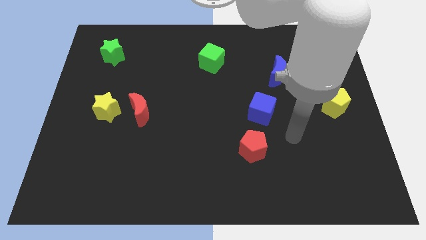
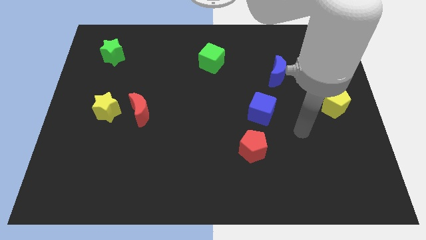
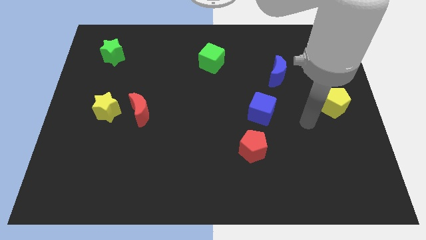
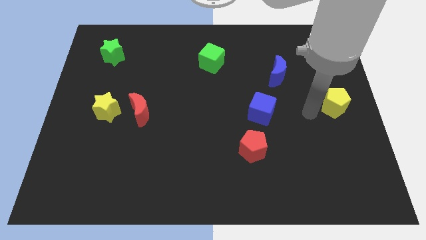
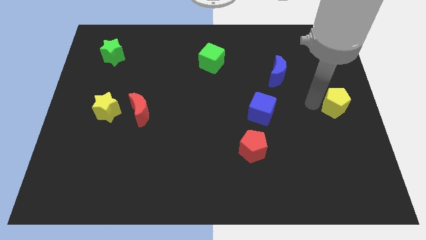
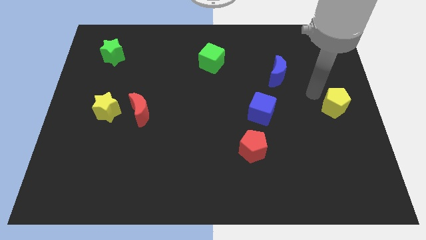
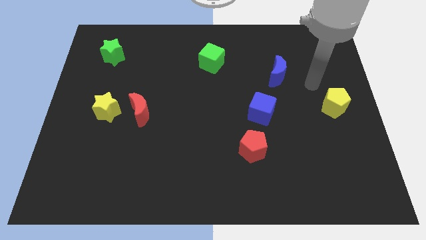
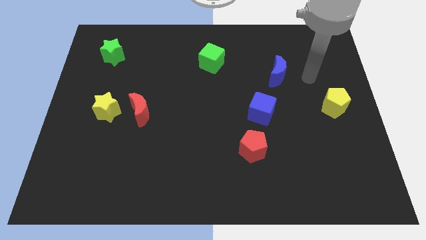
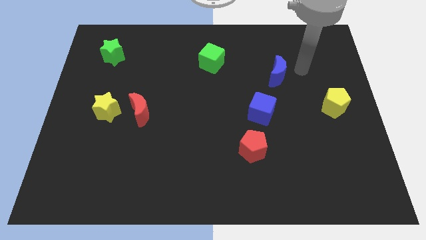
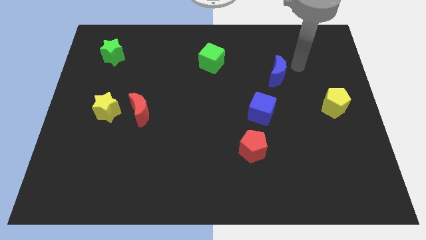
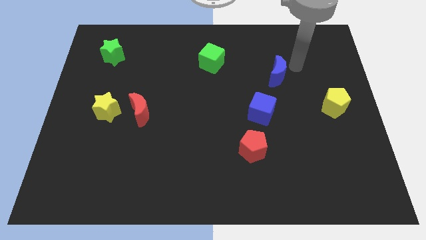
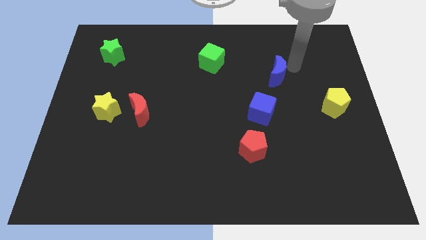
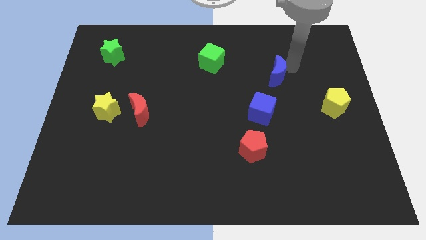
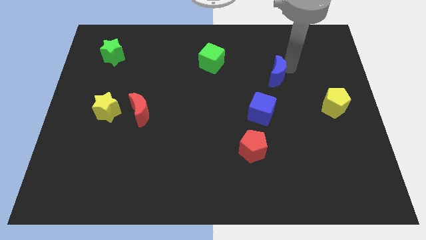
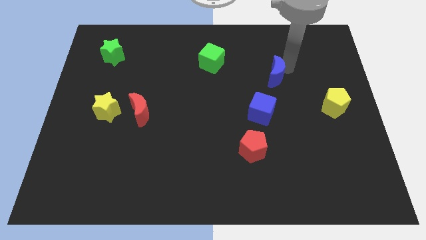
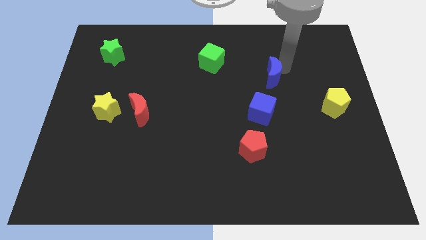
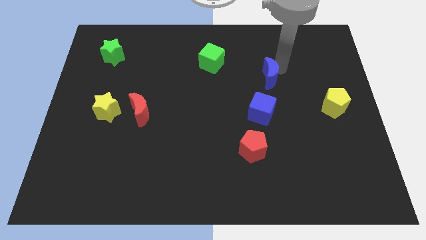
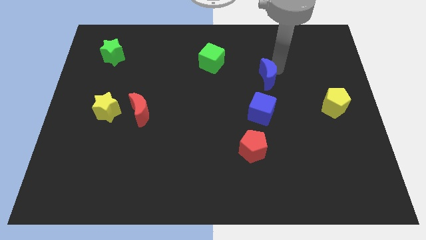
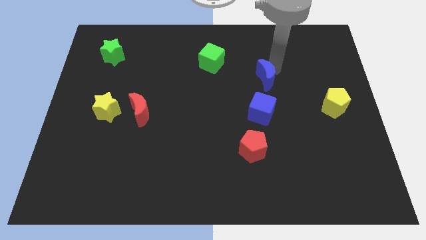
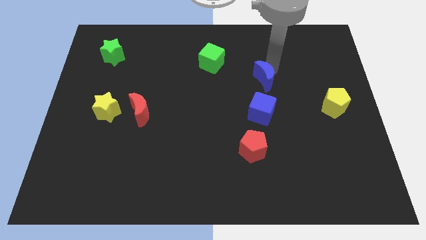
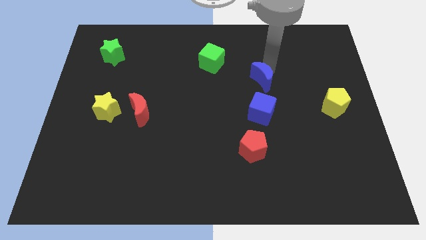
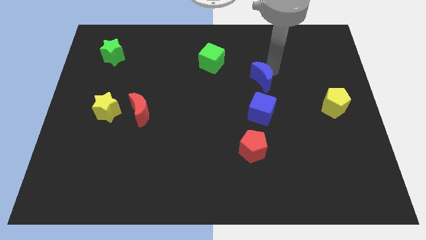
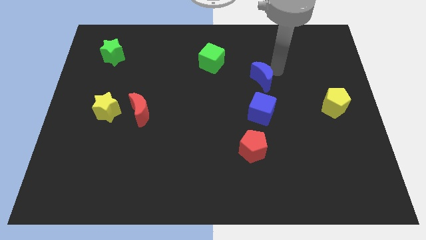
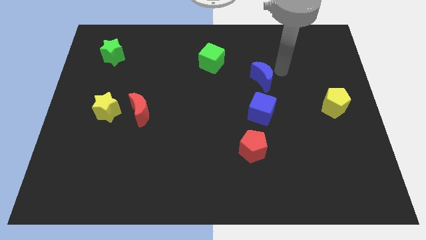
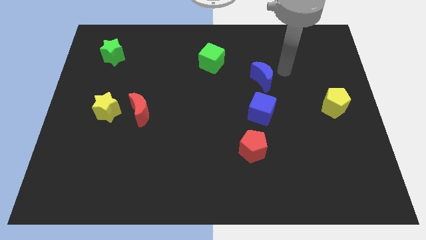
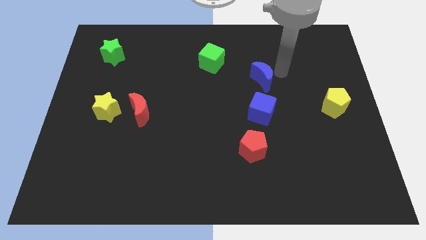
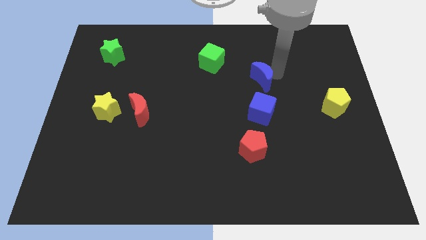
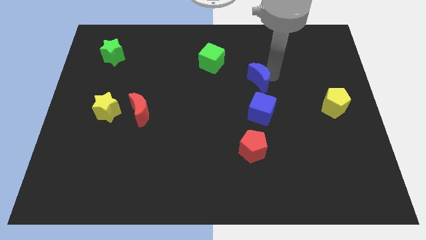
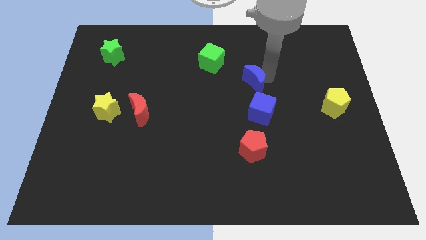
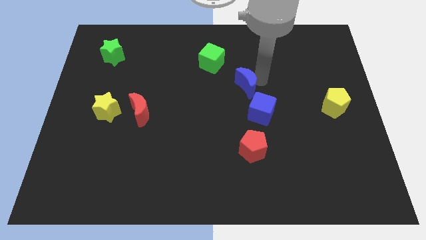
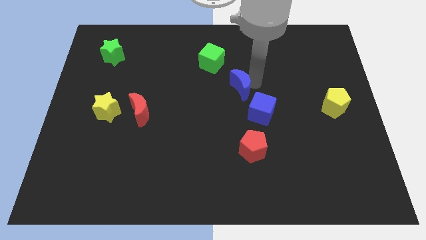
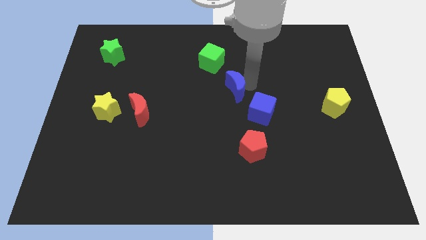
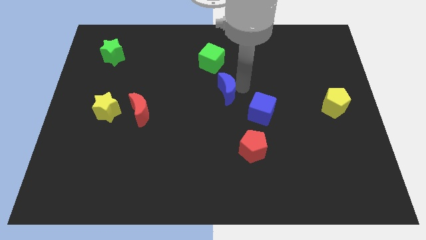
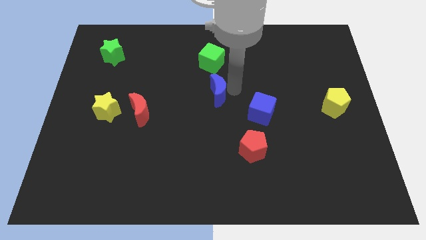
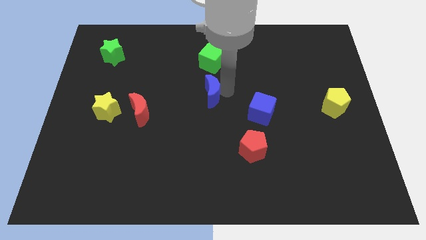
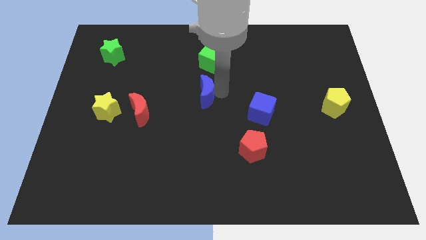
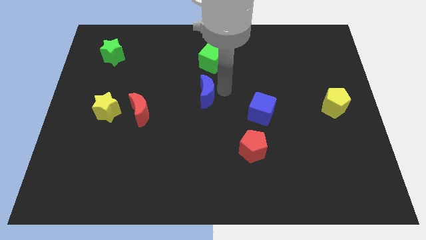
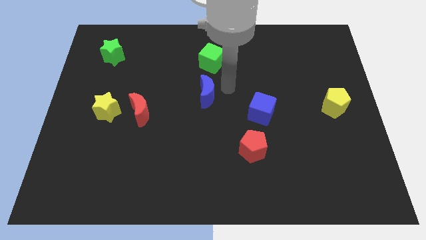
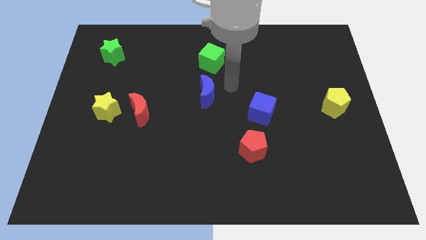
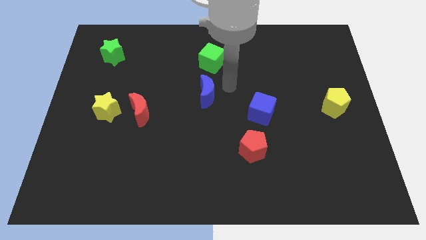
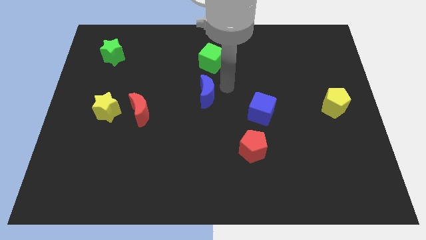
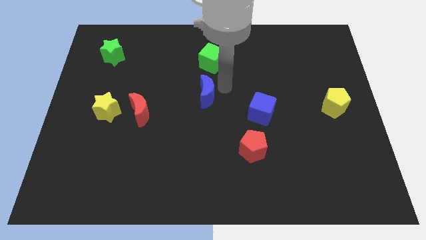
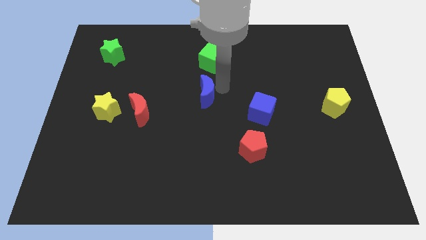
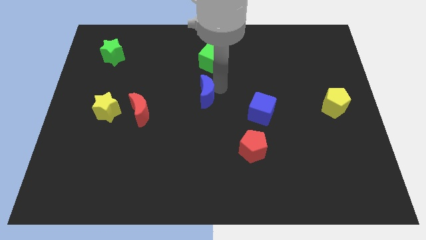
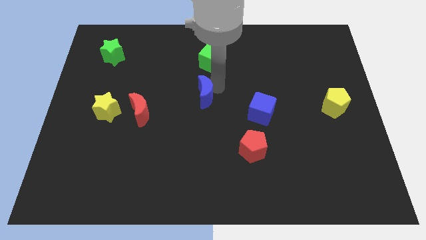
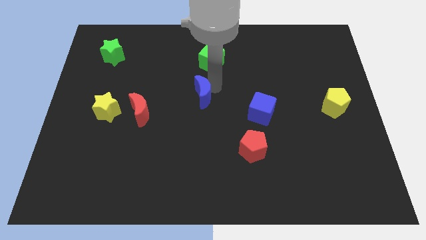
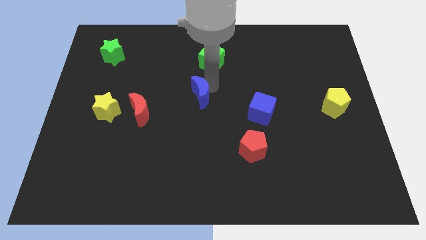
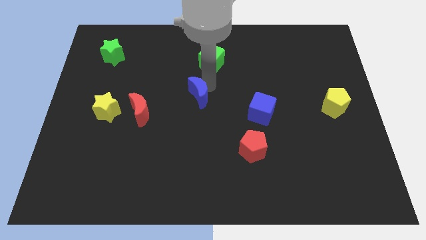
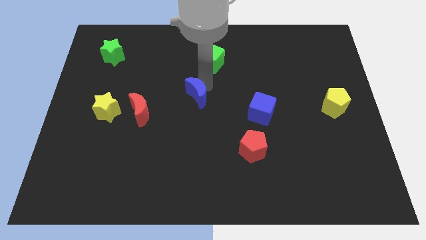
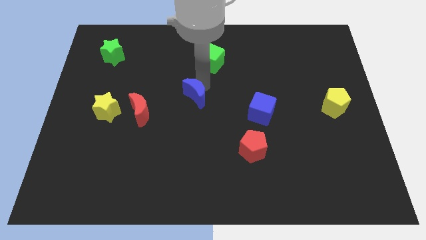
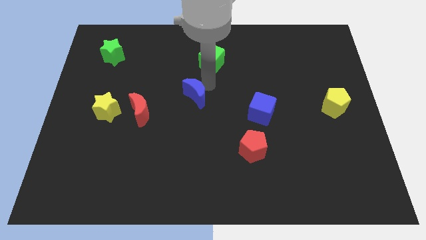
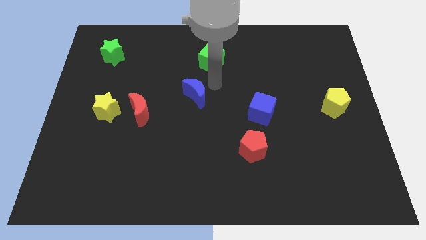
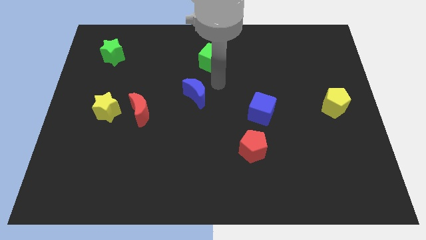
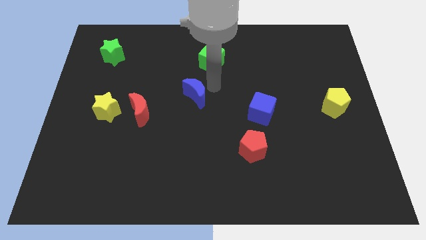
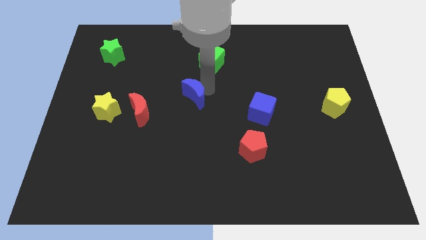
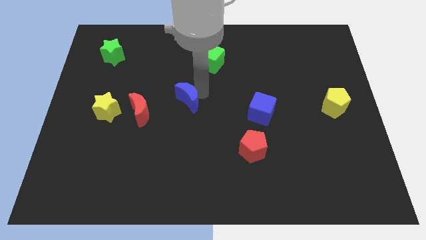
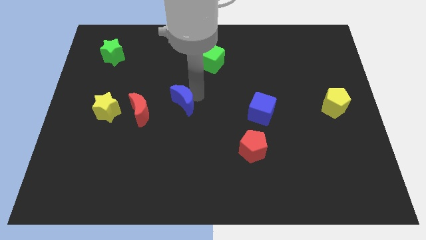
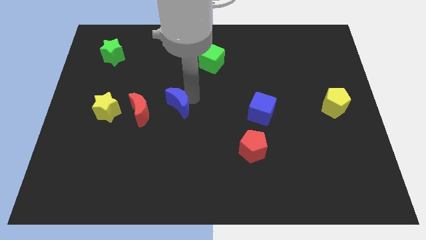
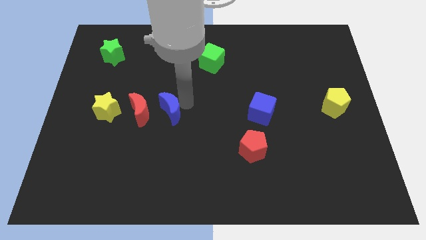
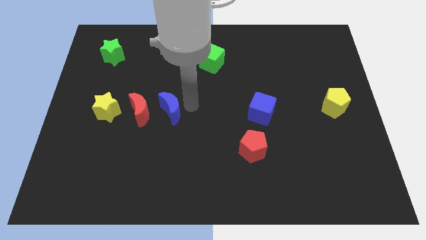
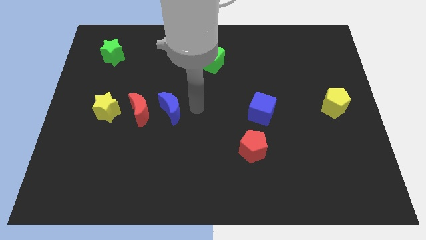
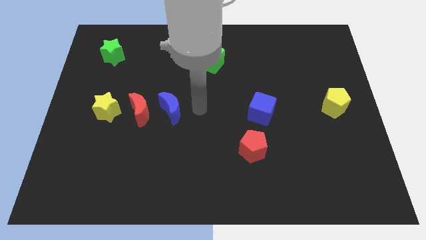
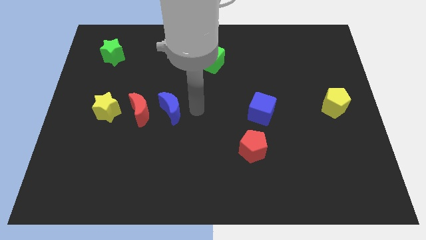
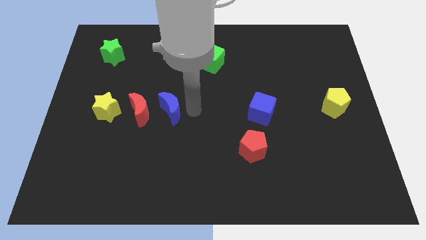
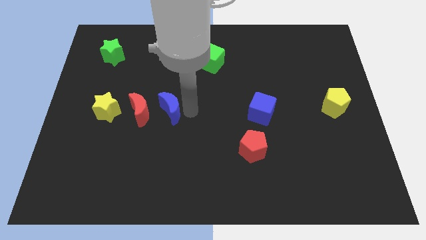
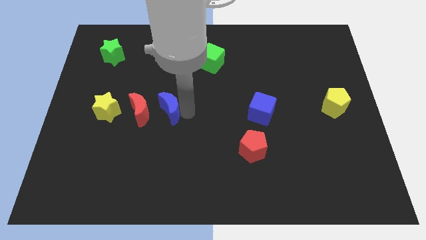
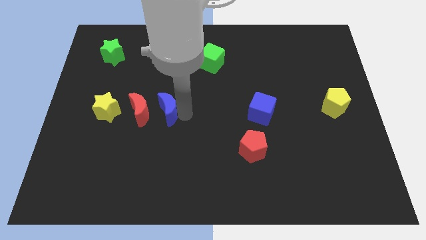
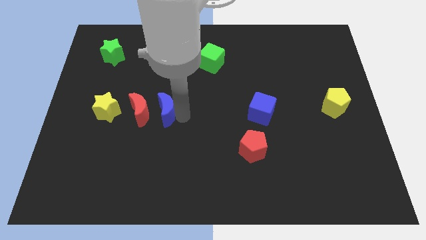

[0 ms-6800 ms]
move the blue moon next to the red moon

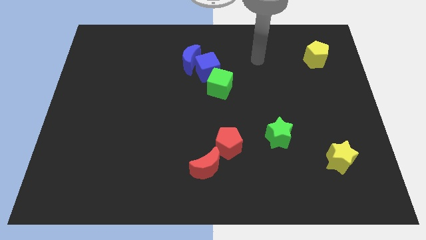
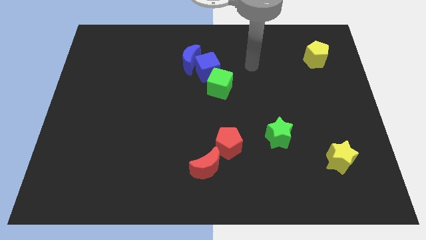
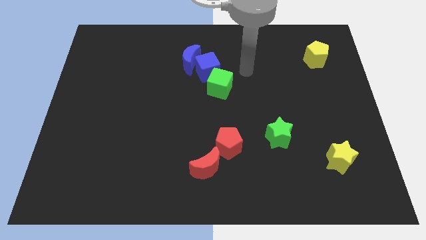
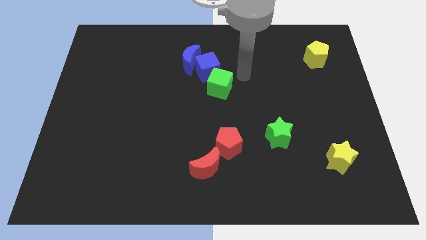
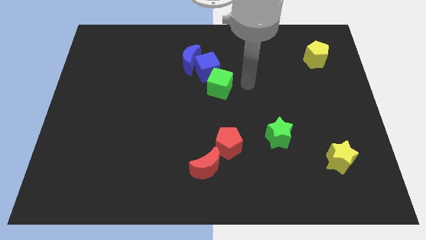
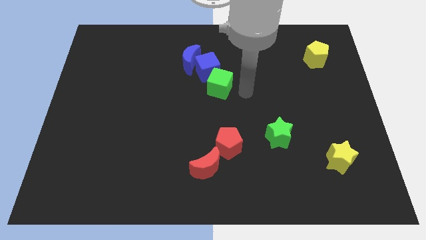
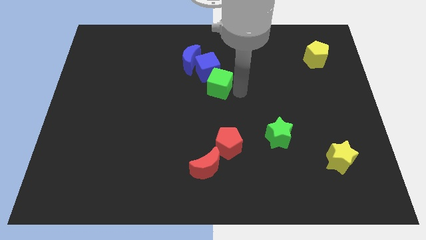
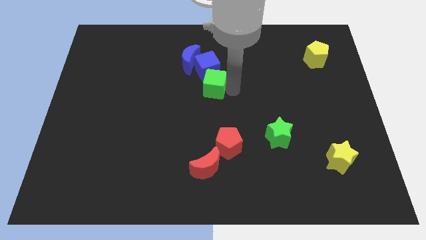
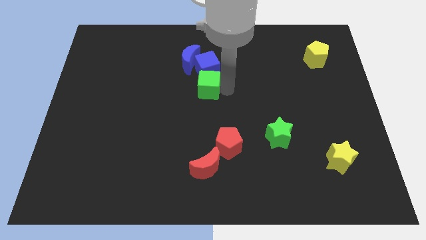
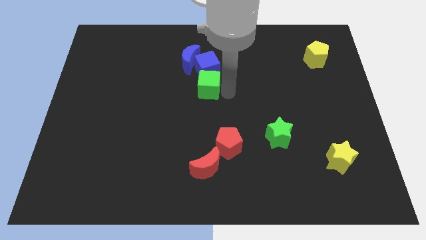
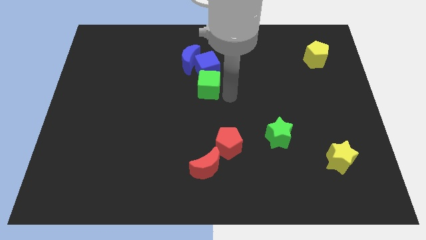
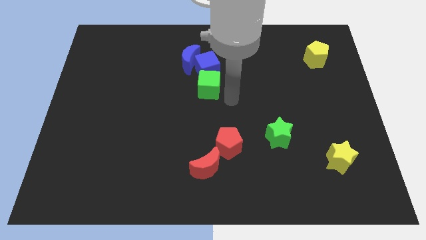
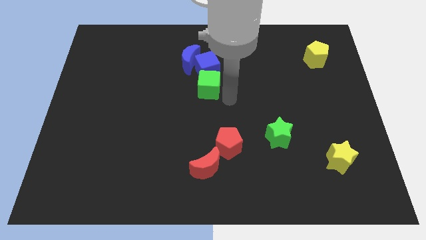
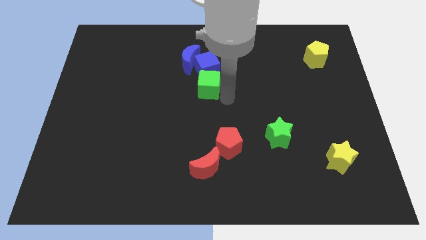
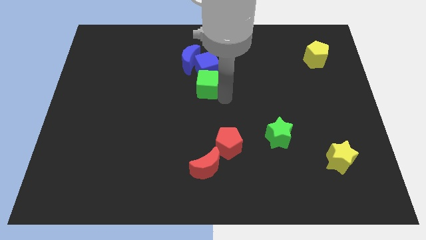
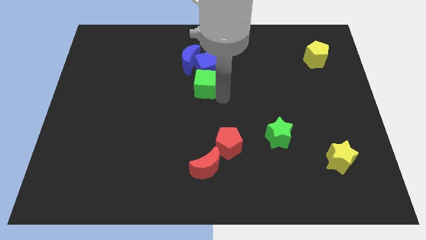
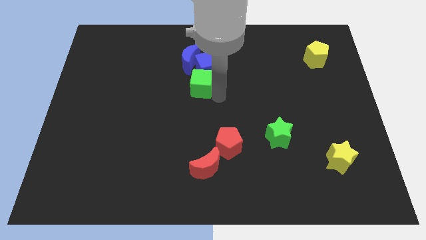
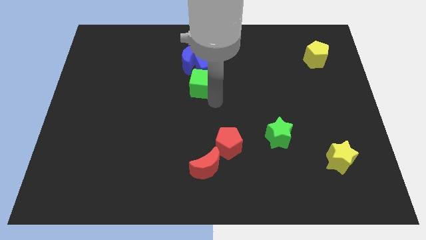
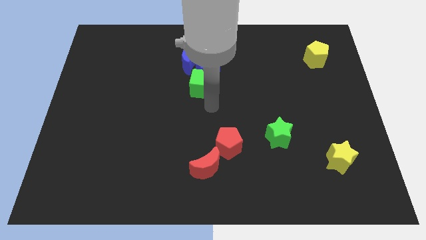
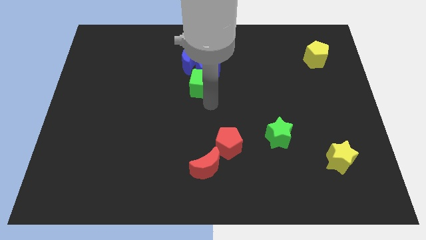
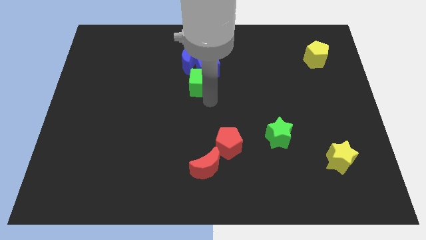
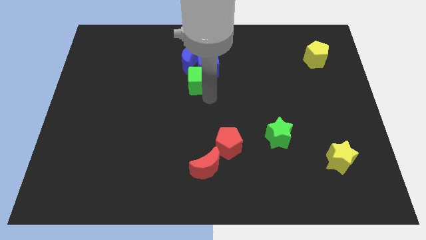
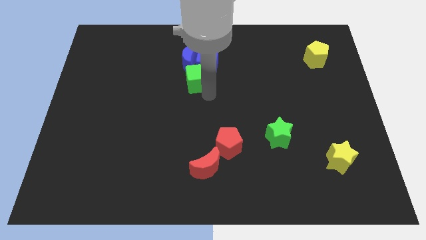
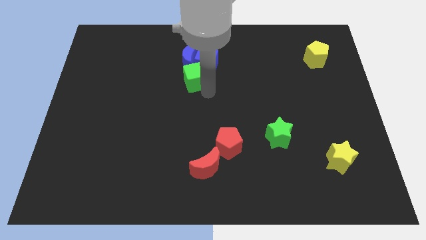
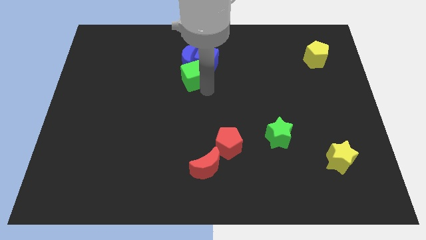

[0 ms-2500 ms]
slide the green cube close to the blue moon
